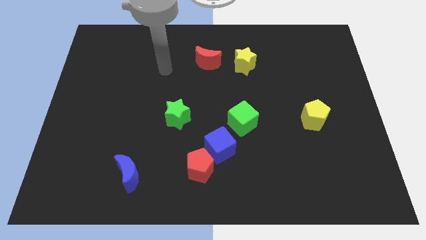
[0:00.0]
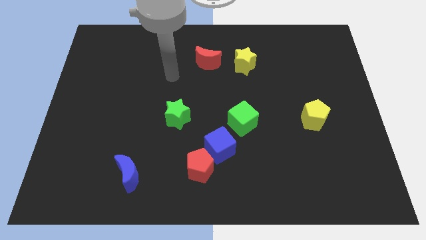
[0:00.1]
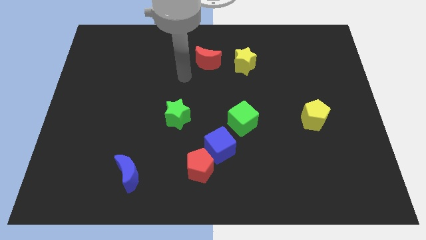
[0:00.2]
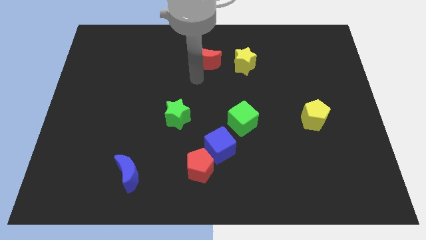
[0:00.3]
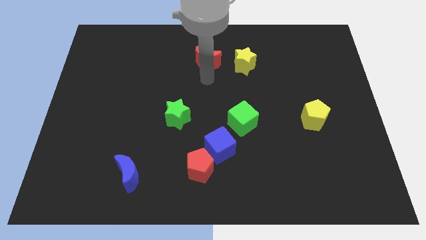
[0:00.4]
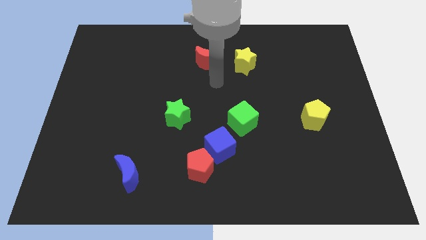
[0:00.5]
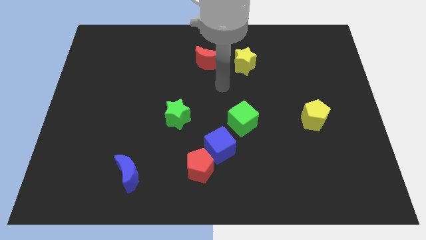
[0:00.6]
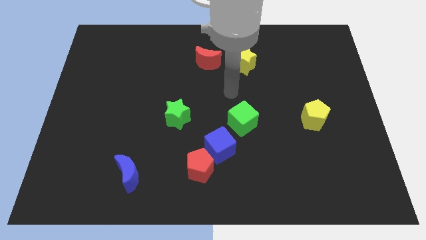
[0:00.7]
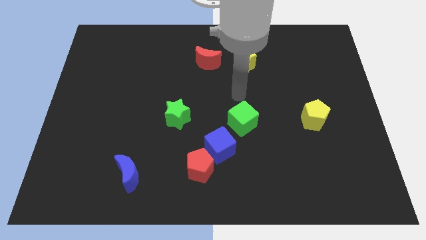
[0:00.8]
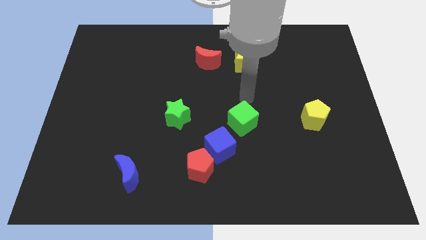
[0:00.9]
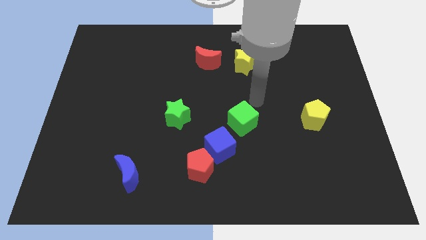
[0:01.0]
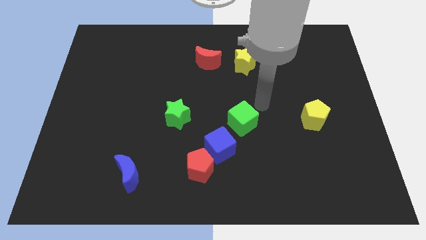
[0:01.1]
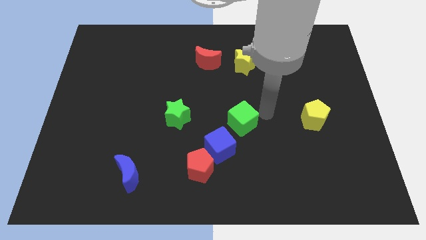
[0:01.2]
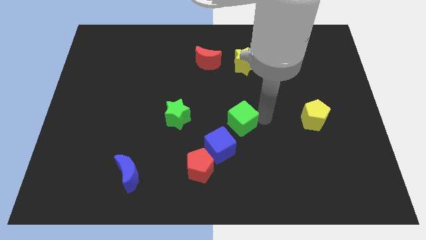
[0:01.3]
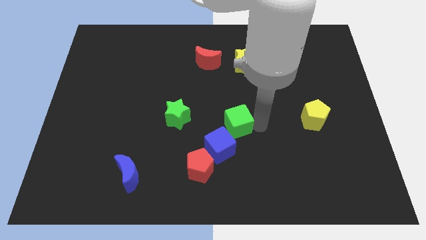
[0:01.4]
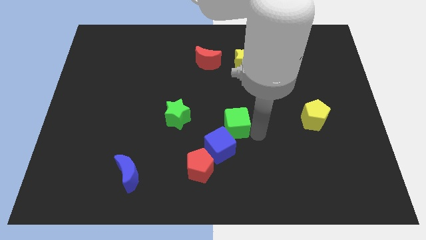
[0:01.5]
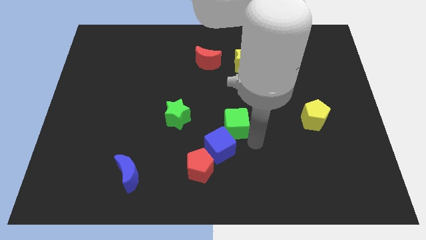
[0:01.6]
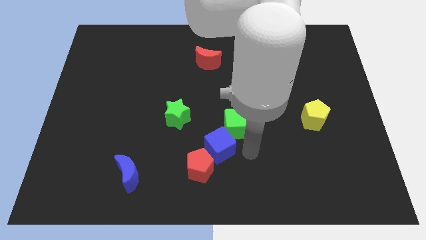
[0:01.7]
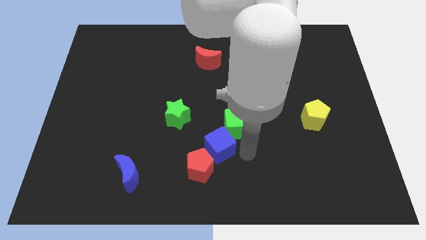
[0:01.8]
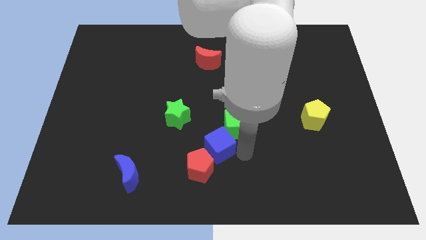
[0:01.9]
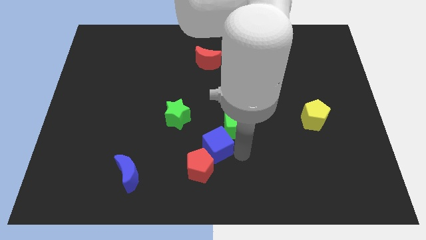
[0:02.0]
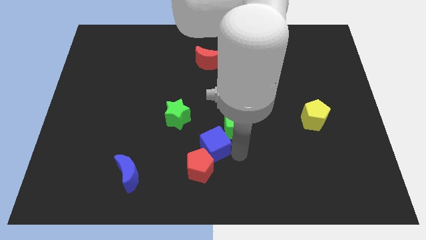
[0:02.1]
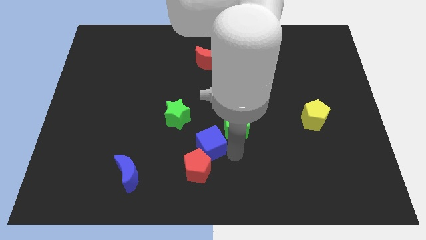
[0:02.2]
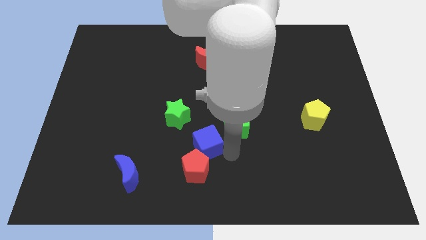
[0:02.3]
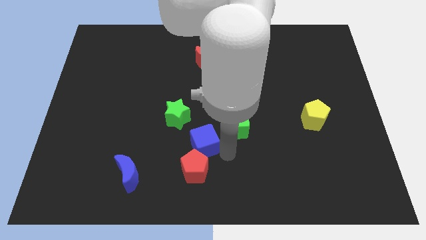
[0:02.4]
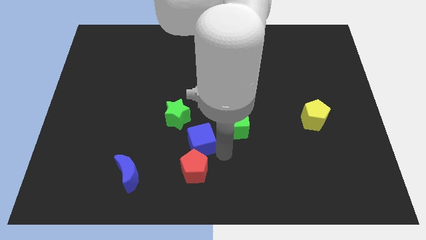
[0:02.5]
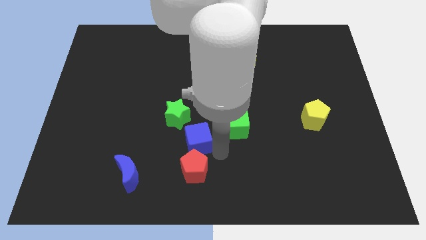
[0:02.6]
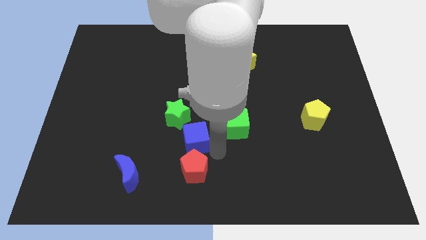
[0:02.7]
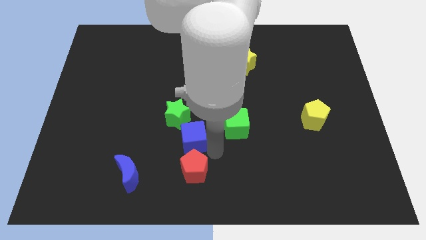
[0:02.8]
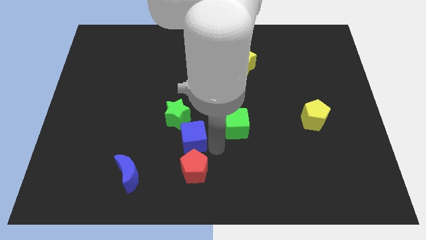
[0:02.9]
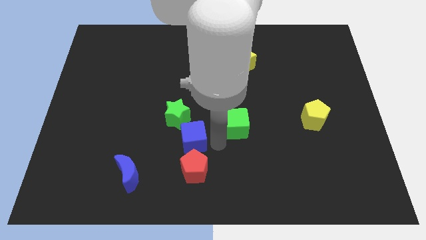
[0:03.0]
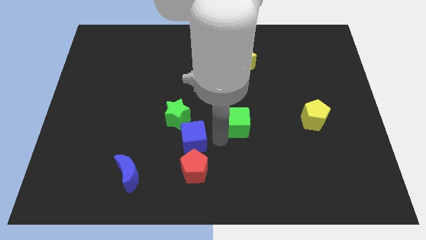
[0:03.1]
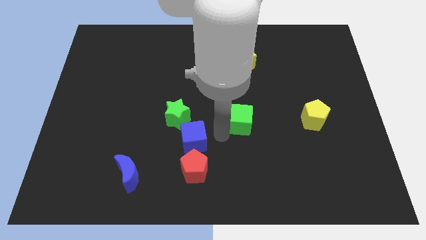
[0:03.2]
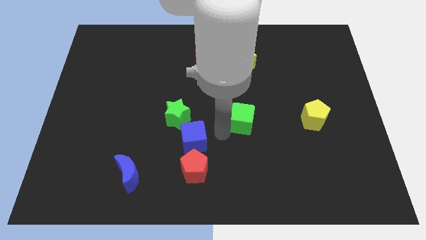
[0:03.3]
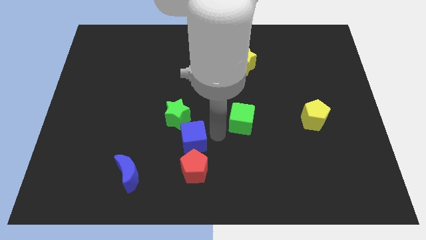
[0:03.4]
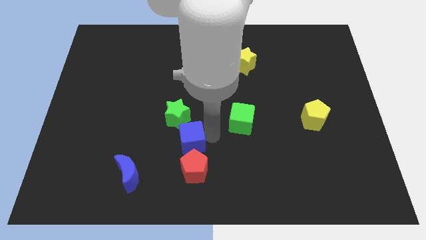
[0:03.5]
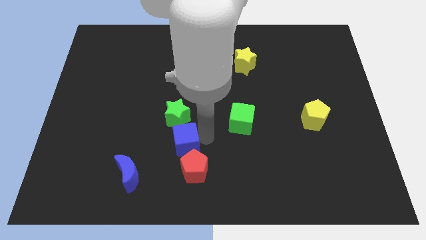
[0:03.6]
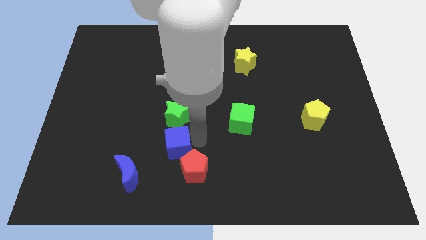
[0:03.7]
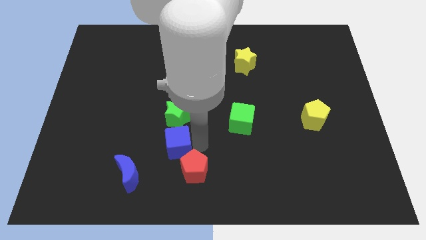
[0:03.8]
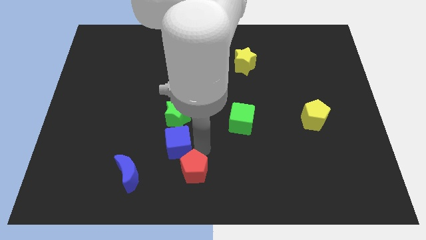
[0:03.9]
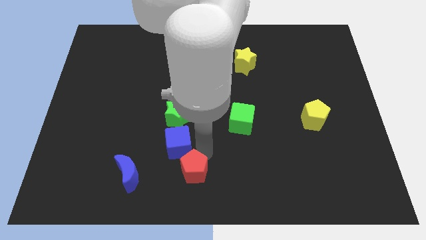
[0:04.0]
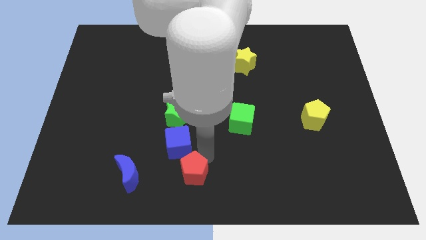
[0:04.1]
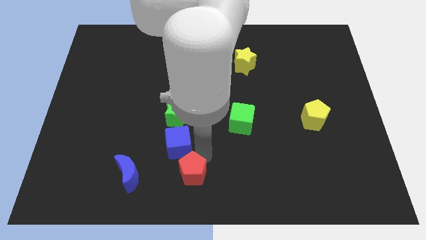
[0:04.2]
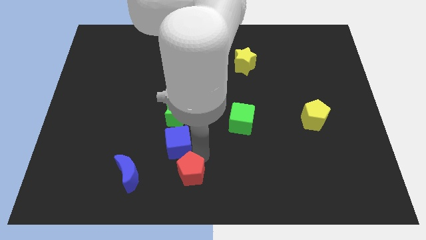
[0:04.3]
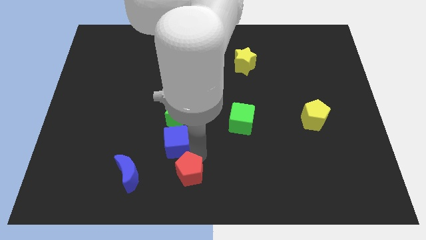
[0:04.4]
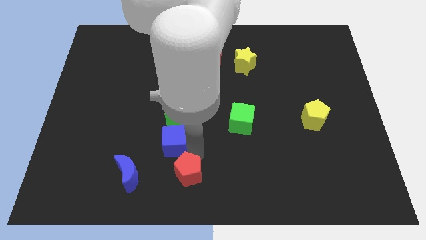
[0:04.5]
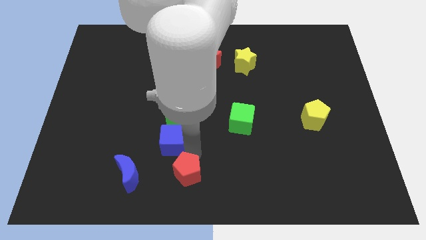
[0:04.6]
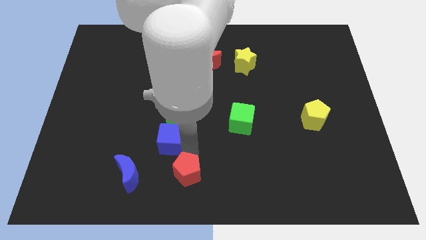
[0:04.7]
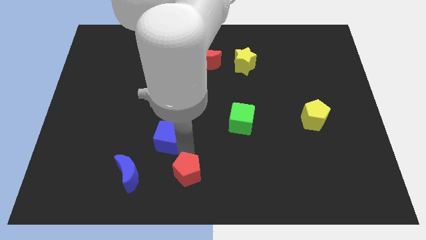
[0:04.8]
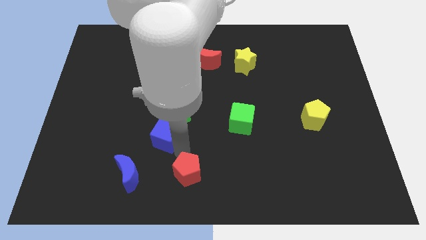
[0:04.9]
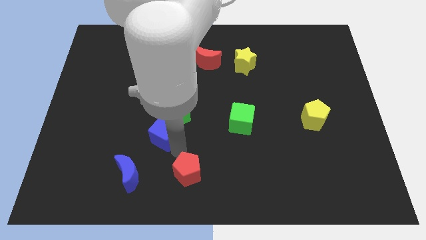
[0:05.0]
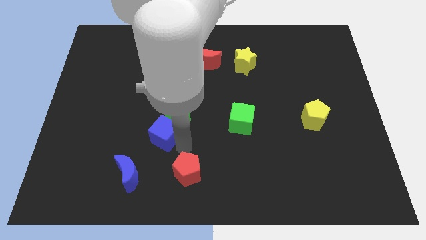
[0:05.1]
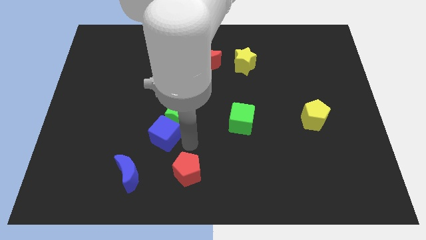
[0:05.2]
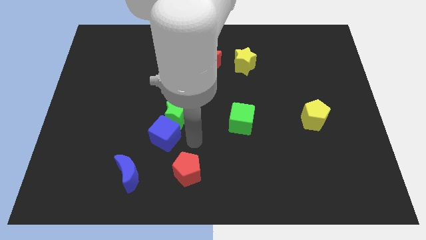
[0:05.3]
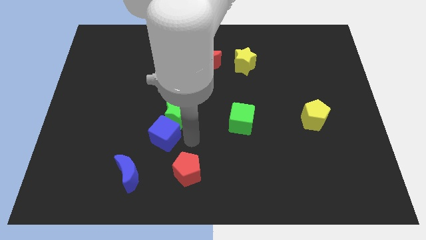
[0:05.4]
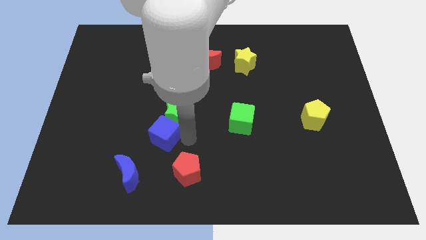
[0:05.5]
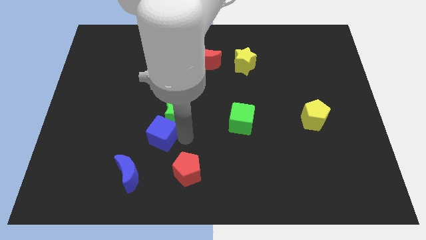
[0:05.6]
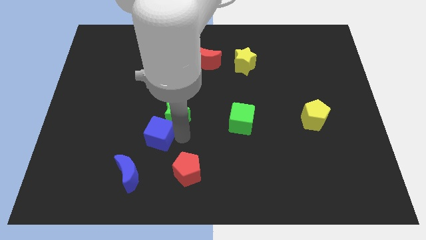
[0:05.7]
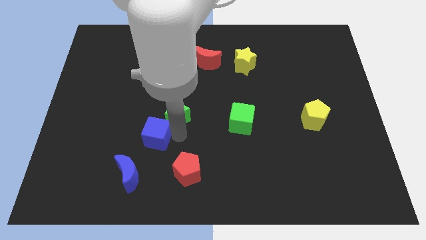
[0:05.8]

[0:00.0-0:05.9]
move the blue cube to the top side of the blue moon

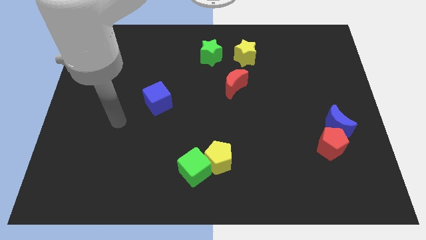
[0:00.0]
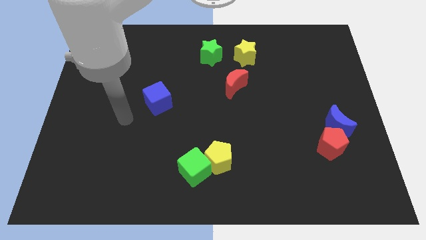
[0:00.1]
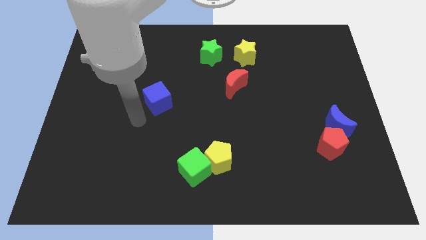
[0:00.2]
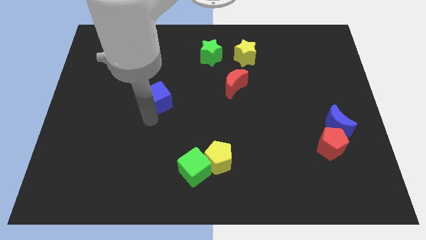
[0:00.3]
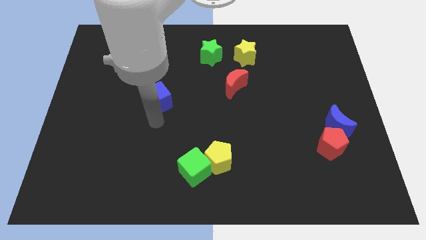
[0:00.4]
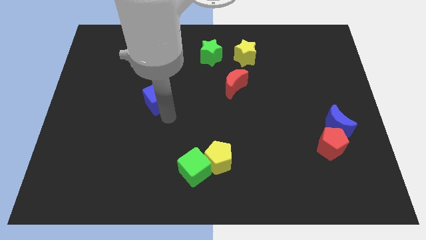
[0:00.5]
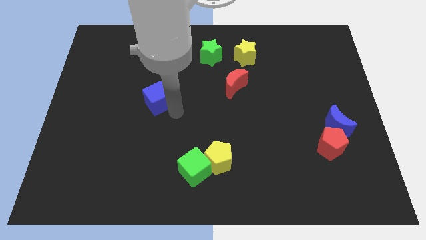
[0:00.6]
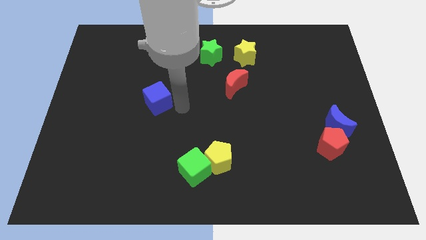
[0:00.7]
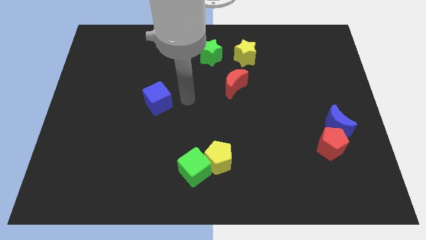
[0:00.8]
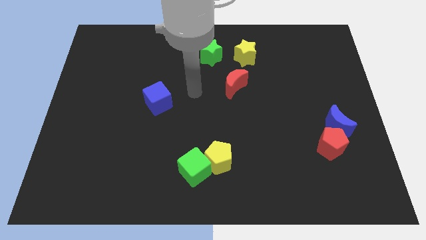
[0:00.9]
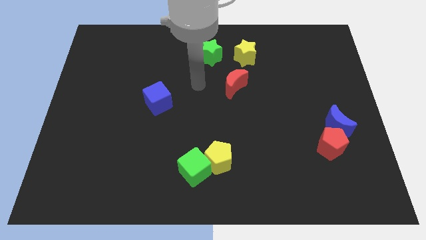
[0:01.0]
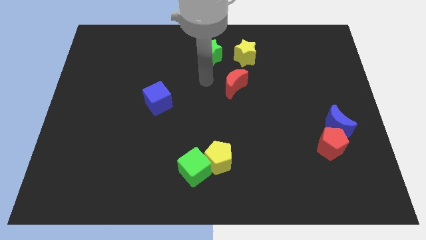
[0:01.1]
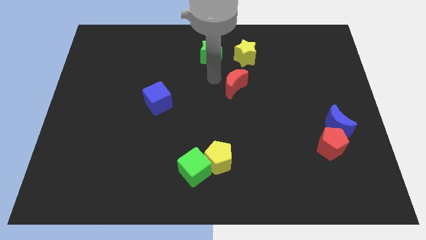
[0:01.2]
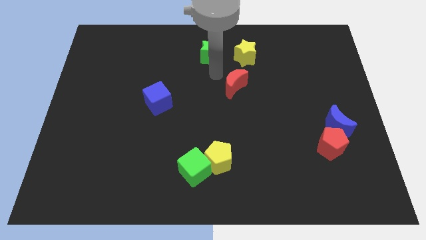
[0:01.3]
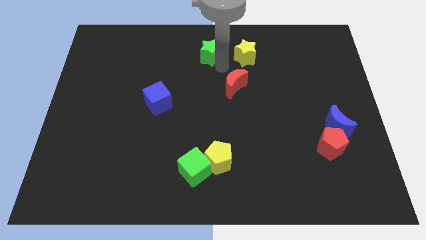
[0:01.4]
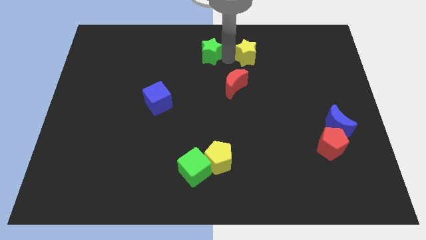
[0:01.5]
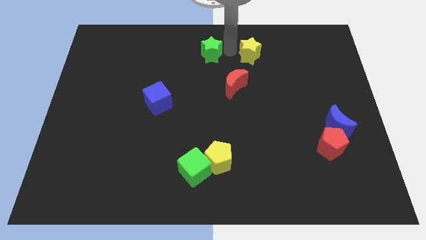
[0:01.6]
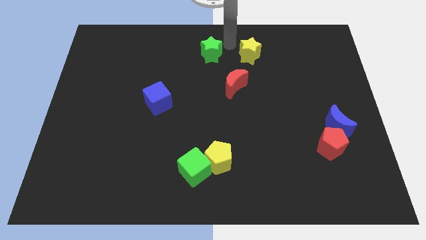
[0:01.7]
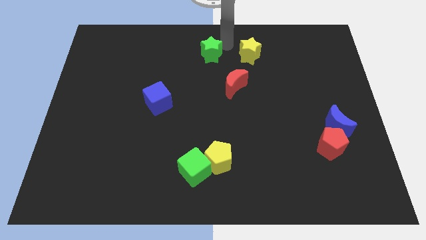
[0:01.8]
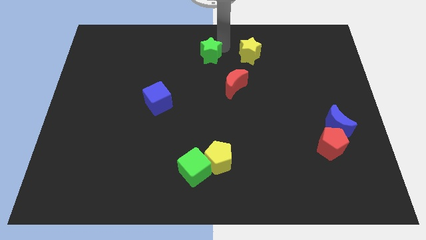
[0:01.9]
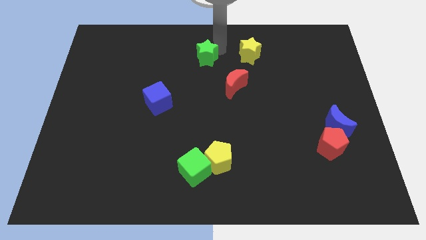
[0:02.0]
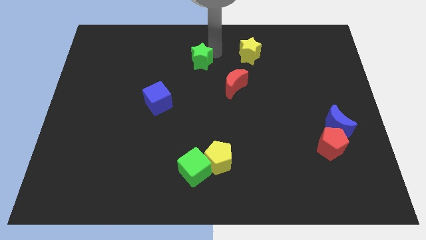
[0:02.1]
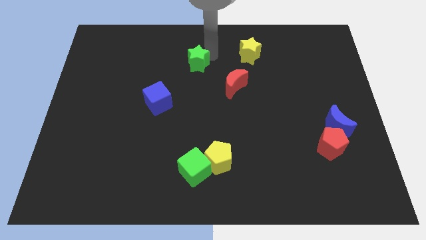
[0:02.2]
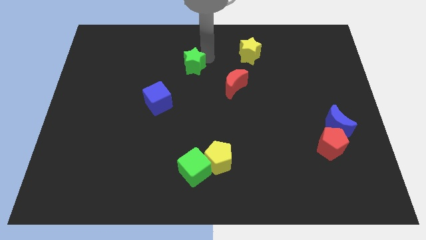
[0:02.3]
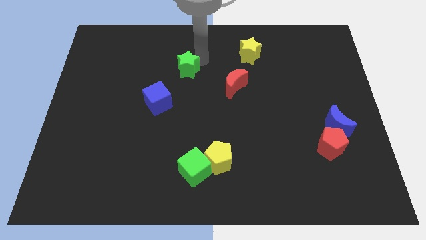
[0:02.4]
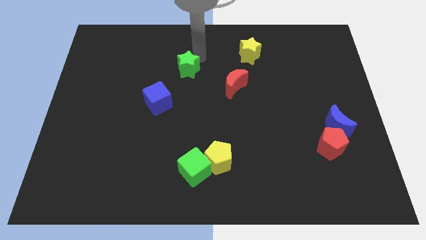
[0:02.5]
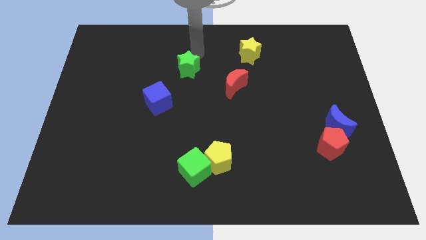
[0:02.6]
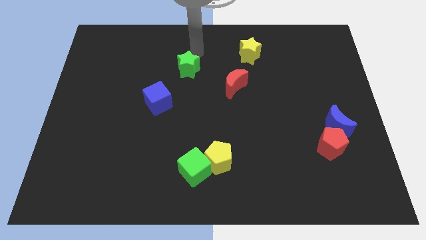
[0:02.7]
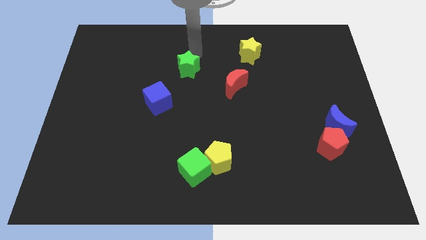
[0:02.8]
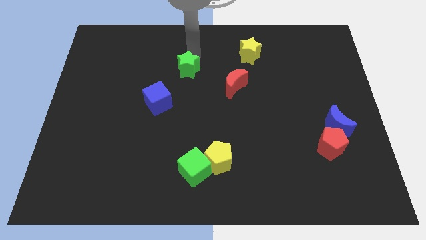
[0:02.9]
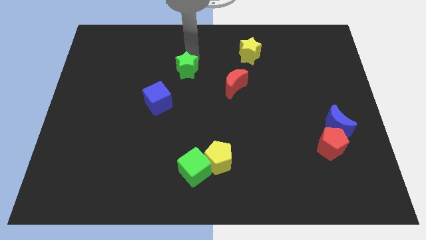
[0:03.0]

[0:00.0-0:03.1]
put the green star to the top right side of the blue cube
